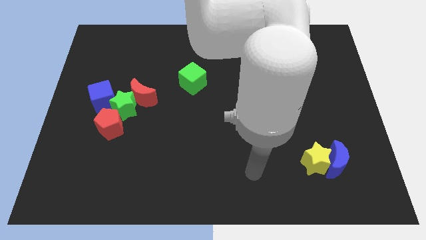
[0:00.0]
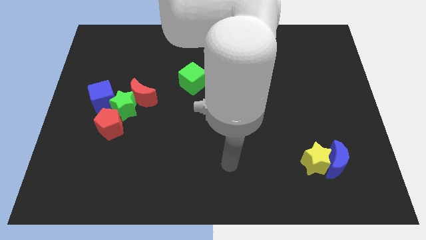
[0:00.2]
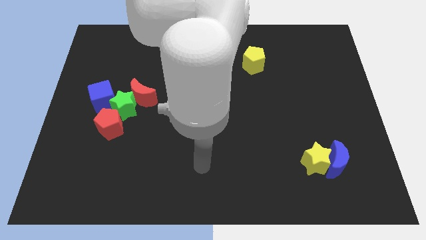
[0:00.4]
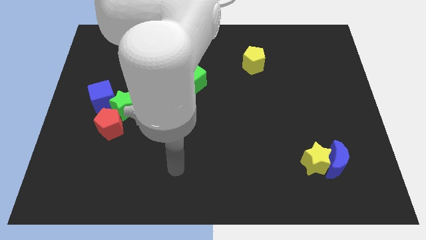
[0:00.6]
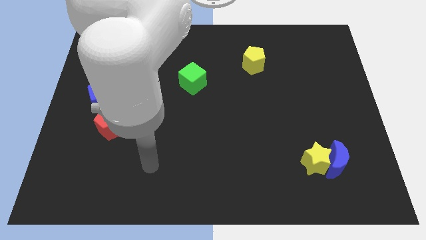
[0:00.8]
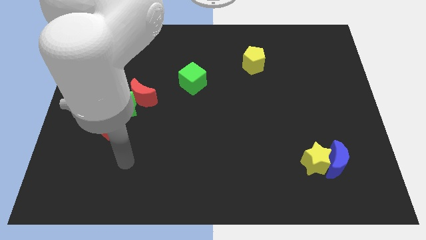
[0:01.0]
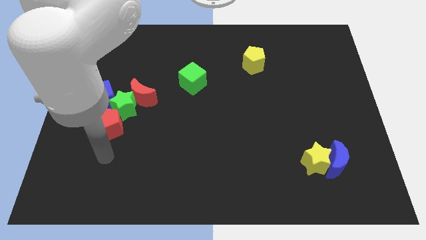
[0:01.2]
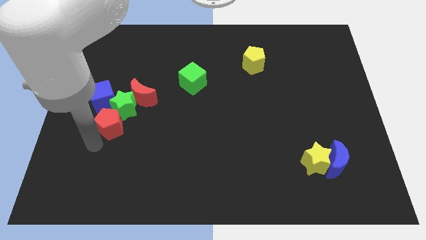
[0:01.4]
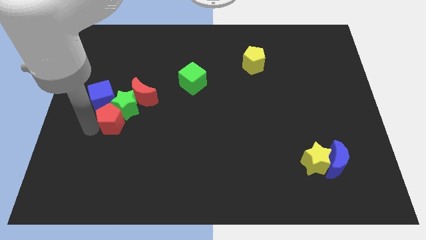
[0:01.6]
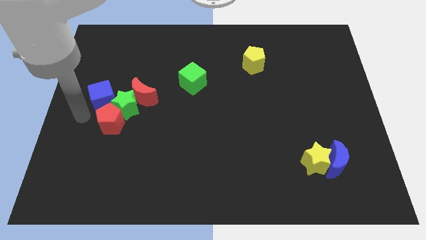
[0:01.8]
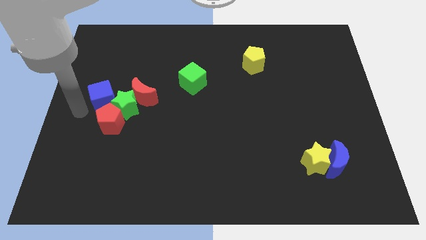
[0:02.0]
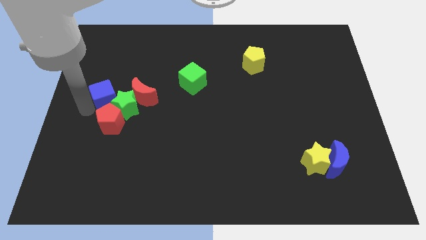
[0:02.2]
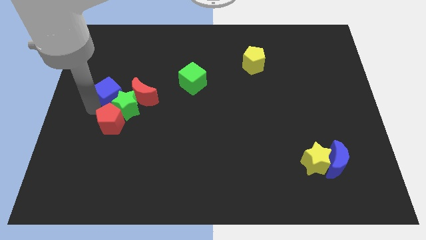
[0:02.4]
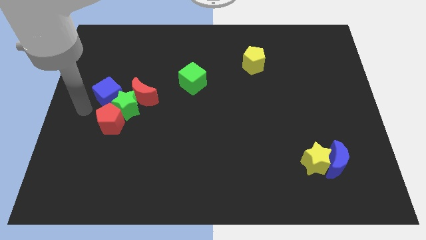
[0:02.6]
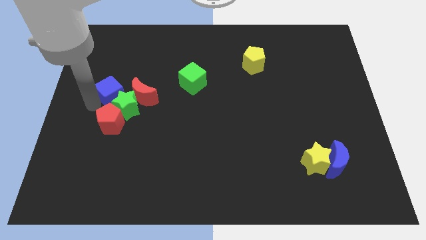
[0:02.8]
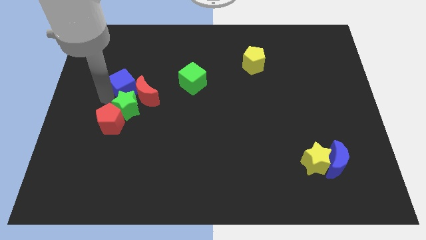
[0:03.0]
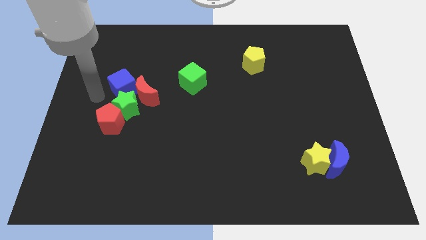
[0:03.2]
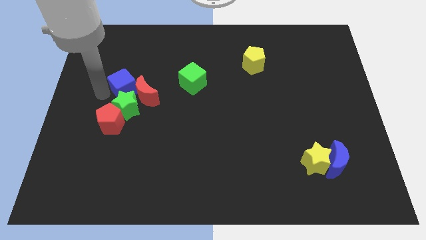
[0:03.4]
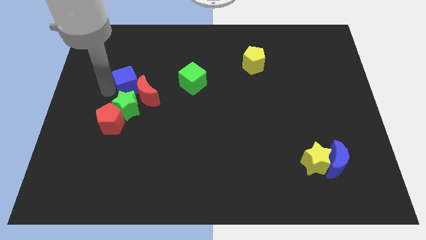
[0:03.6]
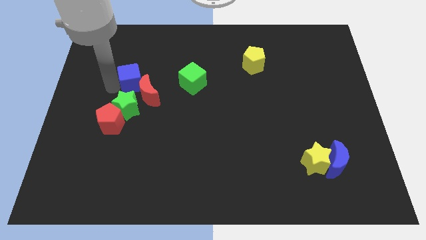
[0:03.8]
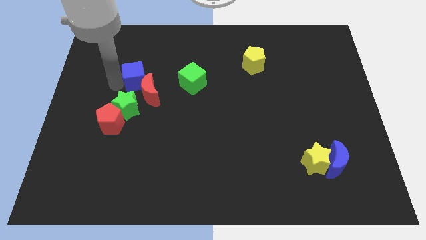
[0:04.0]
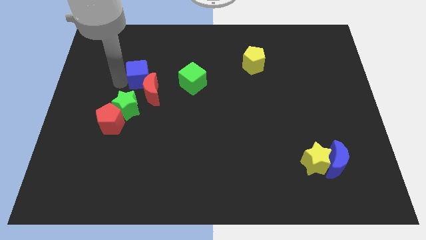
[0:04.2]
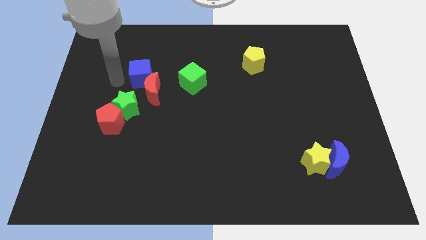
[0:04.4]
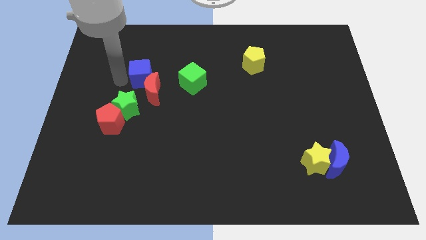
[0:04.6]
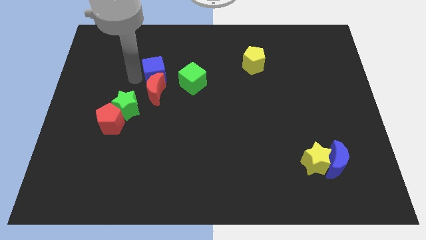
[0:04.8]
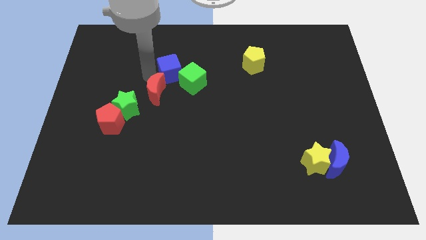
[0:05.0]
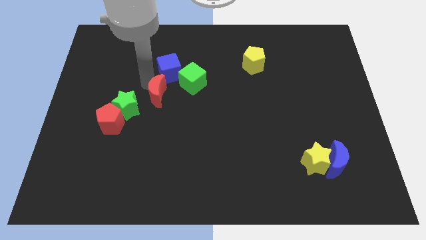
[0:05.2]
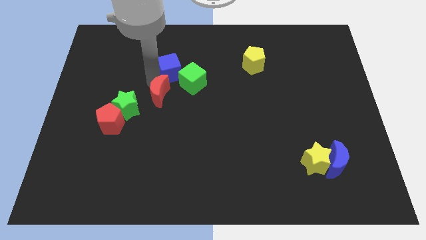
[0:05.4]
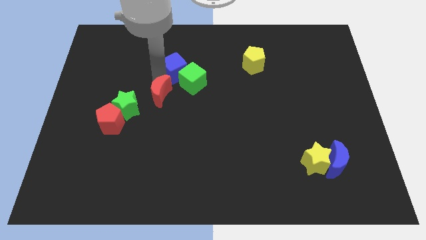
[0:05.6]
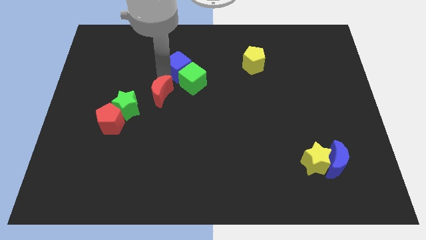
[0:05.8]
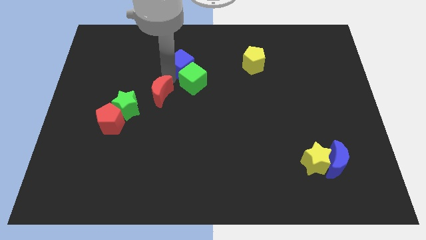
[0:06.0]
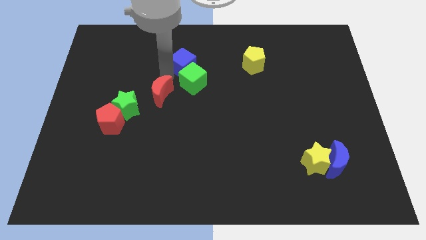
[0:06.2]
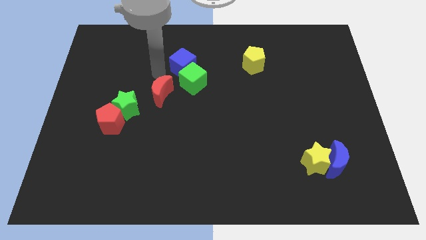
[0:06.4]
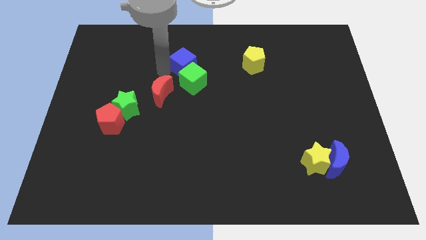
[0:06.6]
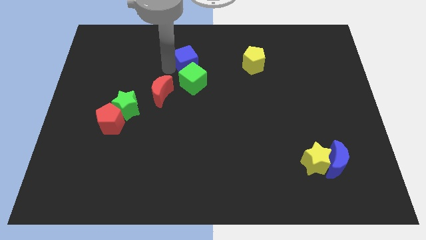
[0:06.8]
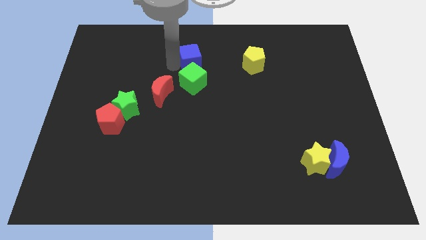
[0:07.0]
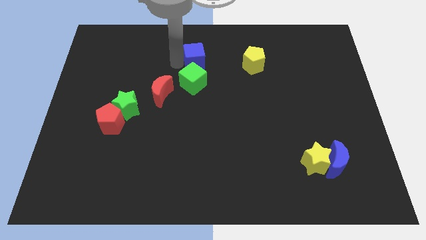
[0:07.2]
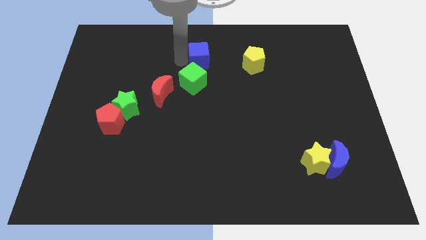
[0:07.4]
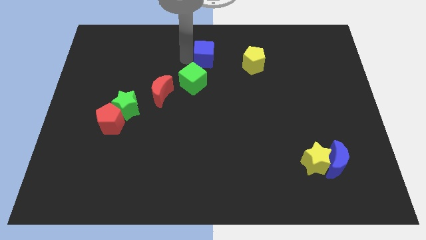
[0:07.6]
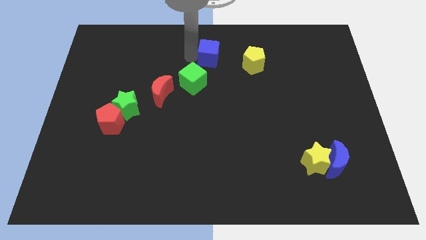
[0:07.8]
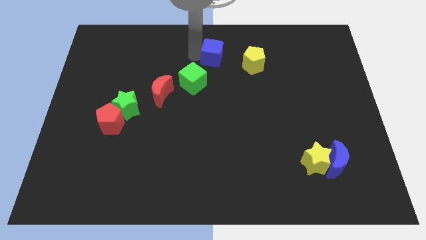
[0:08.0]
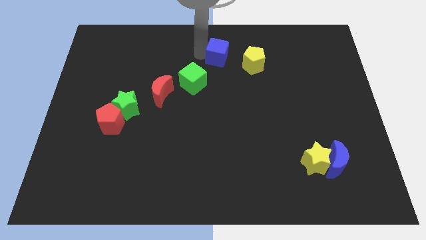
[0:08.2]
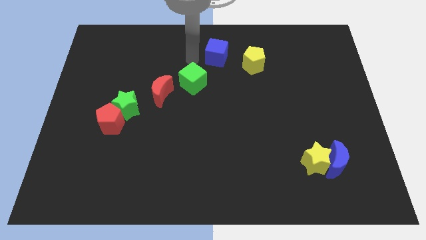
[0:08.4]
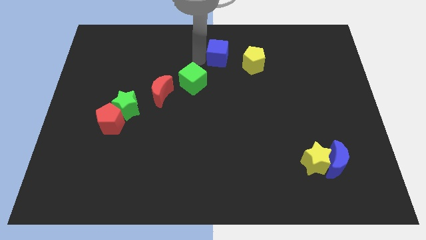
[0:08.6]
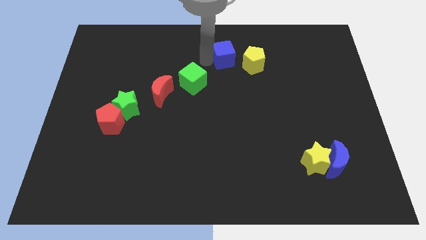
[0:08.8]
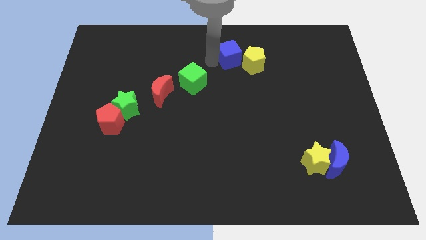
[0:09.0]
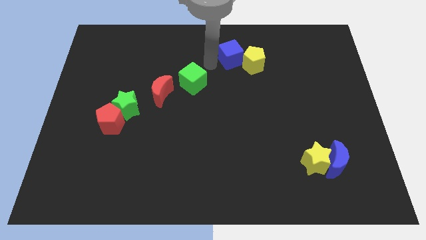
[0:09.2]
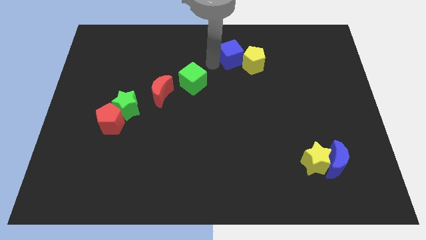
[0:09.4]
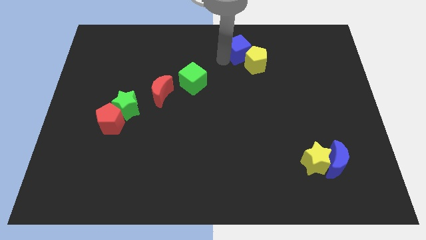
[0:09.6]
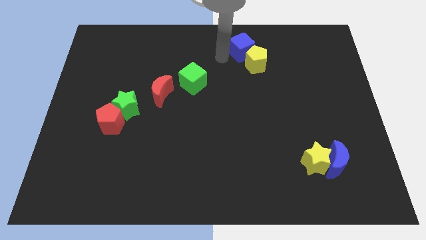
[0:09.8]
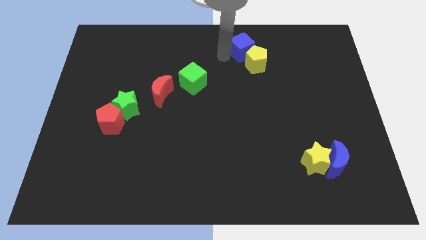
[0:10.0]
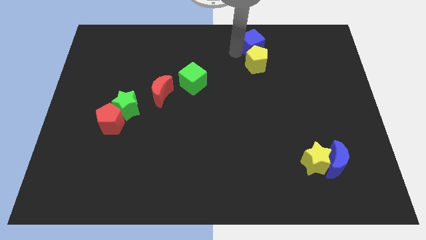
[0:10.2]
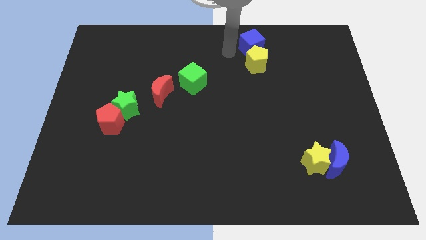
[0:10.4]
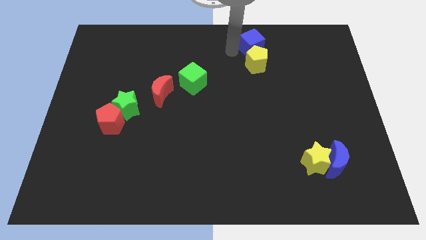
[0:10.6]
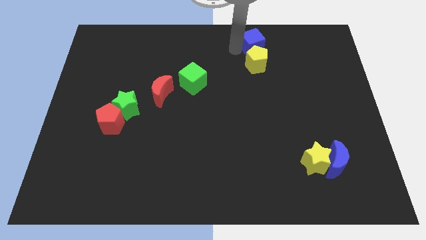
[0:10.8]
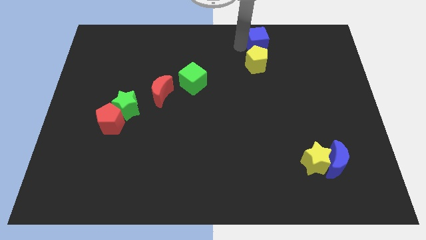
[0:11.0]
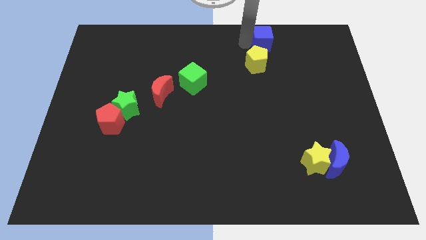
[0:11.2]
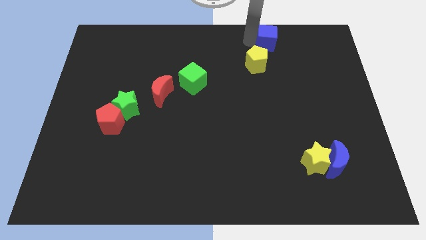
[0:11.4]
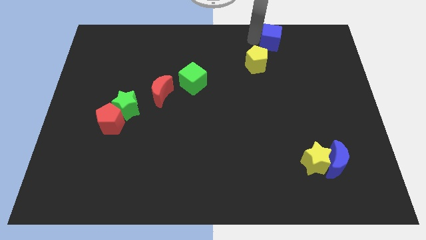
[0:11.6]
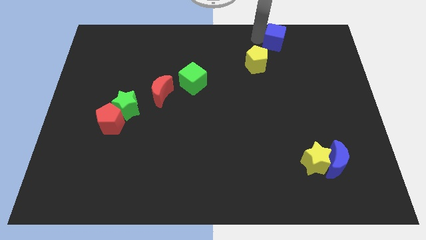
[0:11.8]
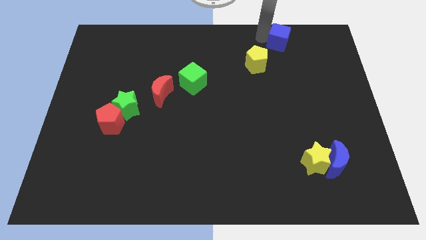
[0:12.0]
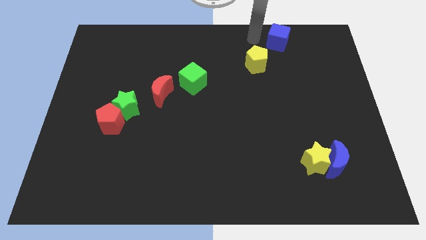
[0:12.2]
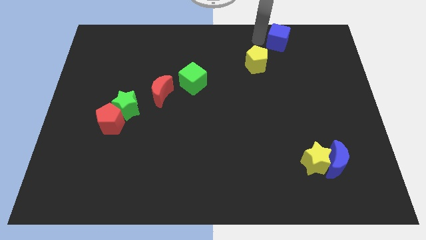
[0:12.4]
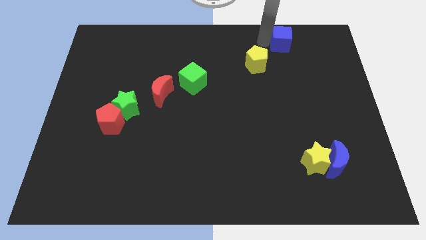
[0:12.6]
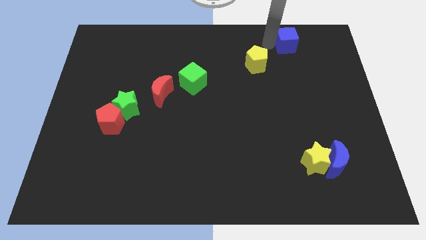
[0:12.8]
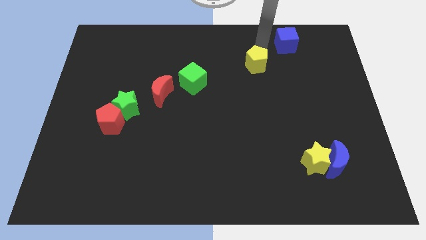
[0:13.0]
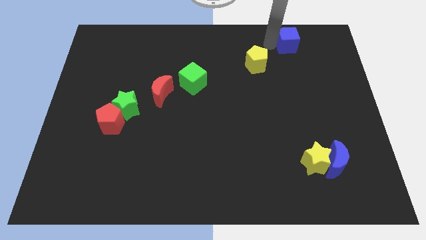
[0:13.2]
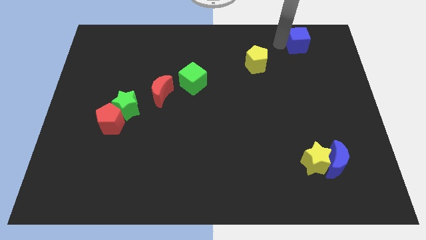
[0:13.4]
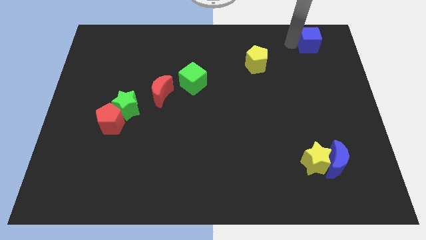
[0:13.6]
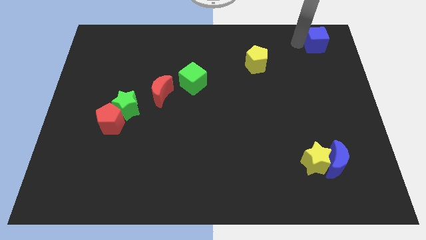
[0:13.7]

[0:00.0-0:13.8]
slide the blue cube to the top right

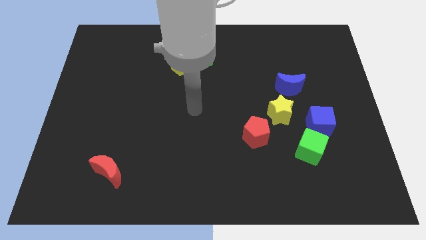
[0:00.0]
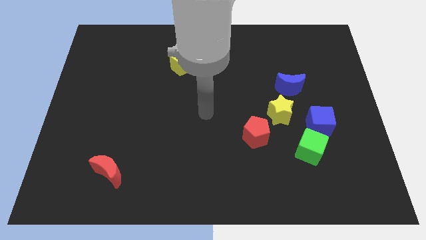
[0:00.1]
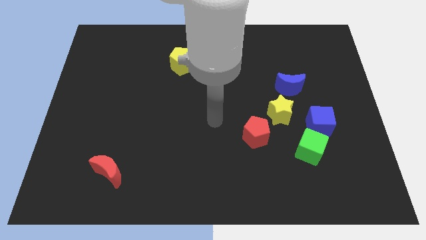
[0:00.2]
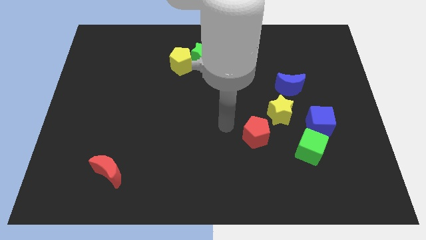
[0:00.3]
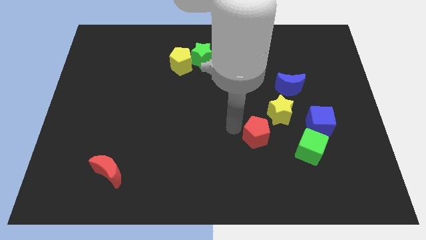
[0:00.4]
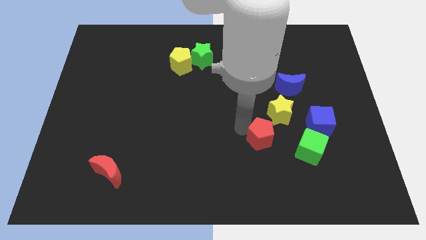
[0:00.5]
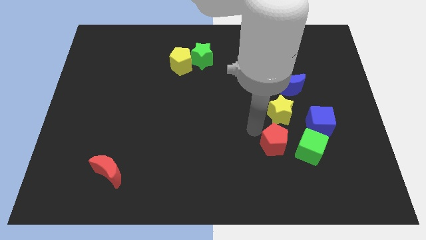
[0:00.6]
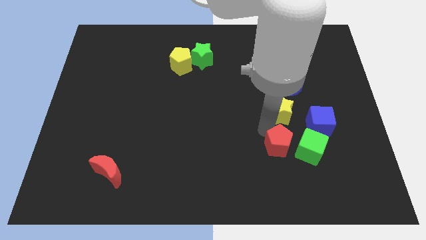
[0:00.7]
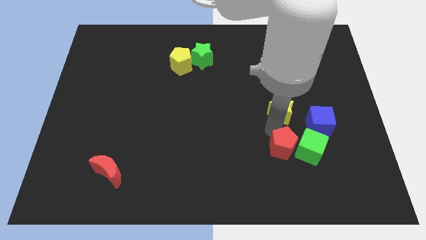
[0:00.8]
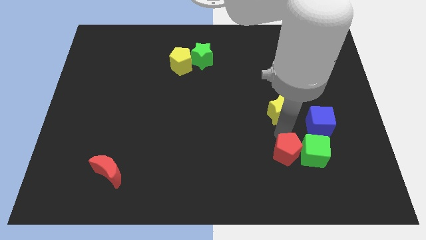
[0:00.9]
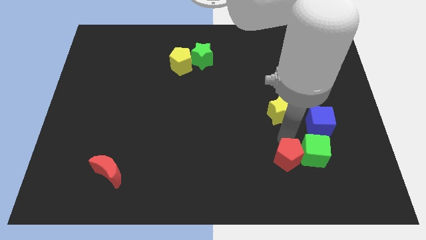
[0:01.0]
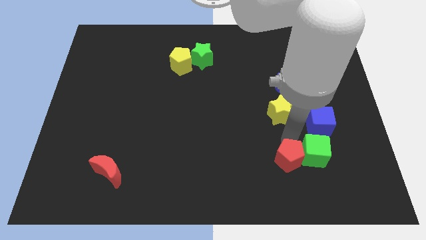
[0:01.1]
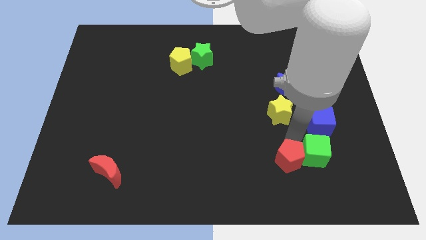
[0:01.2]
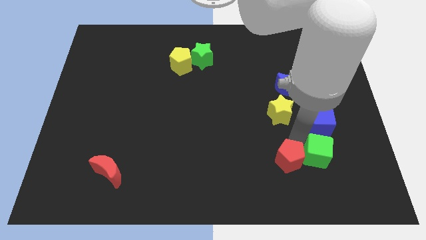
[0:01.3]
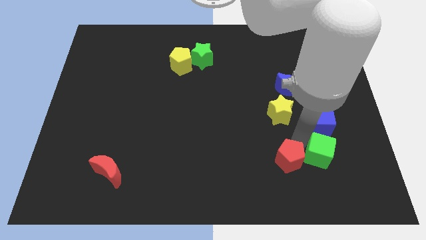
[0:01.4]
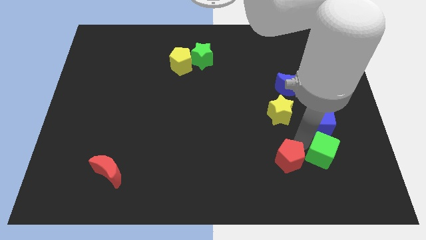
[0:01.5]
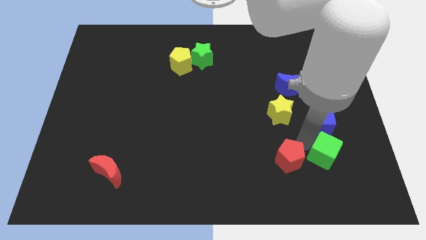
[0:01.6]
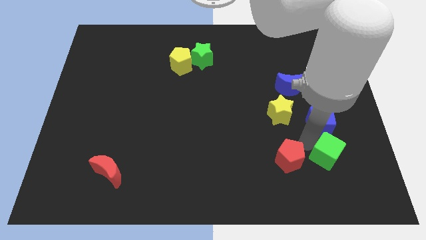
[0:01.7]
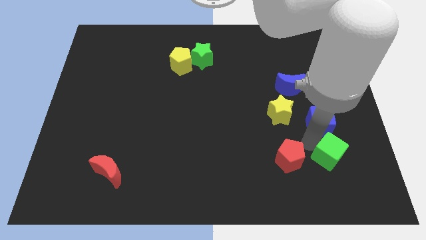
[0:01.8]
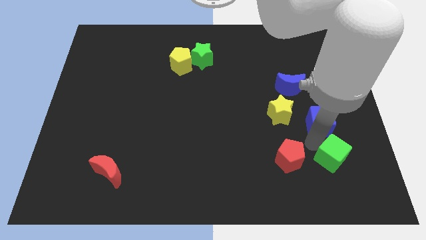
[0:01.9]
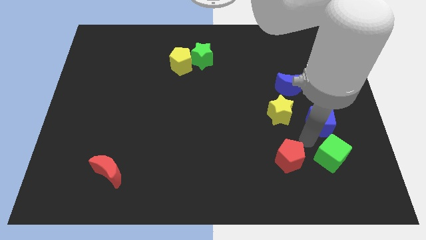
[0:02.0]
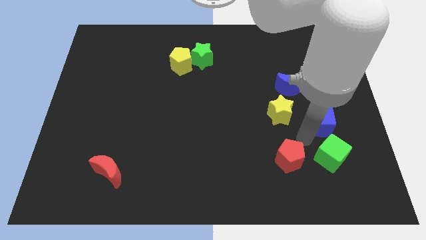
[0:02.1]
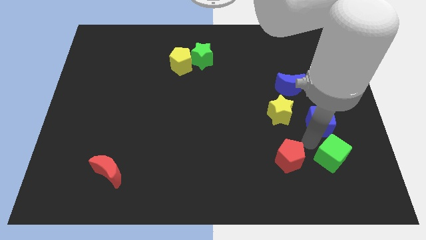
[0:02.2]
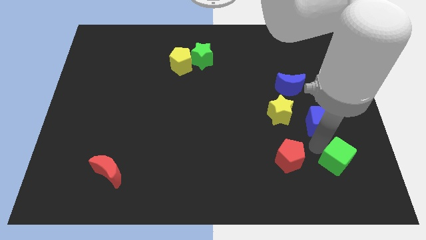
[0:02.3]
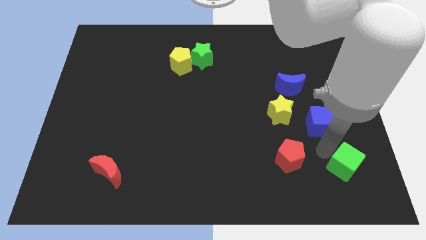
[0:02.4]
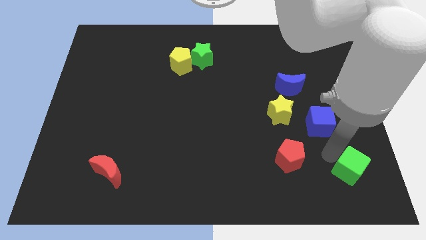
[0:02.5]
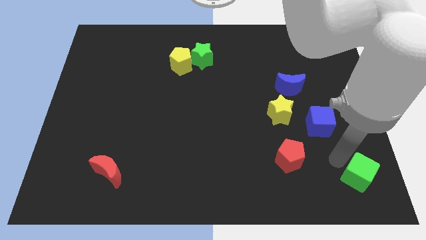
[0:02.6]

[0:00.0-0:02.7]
push the green cube to the bottom right
